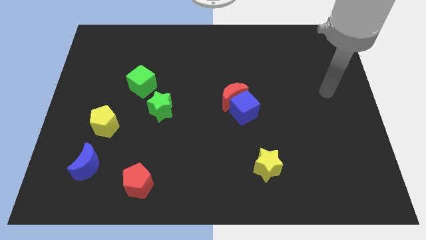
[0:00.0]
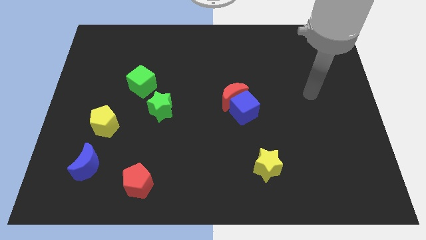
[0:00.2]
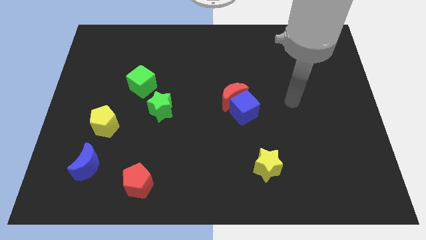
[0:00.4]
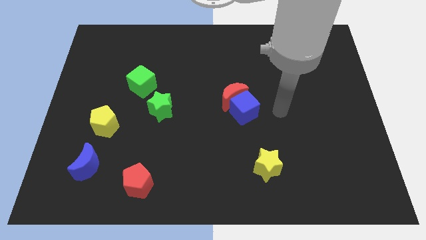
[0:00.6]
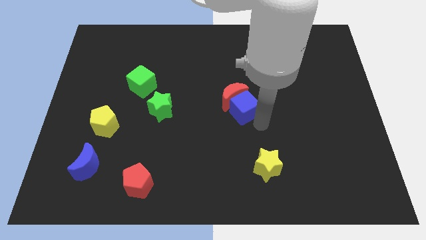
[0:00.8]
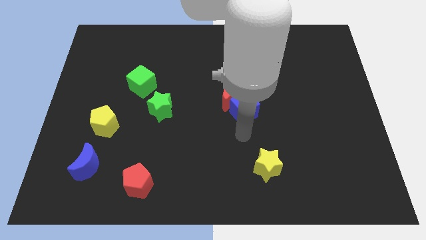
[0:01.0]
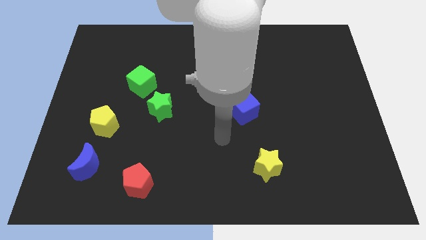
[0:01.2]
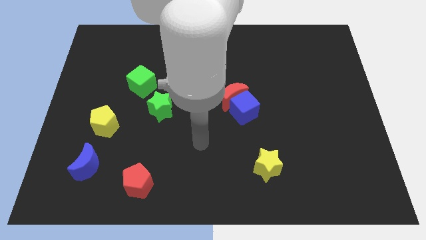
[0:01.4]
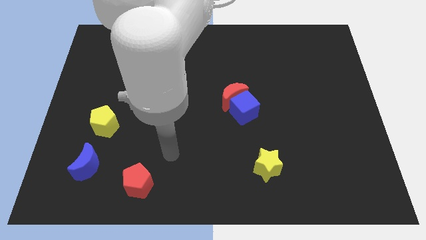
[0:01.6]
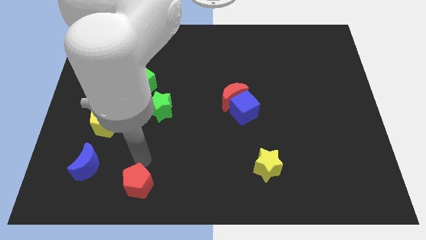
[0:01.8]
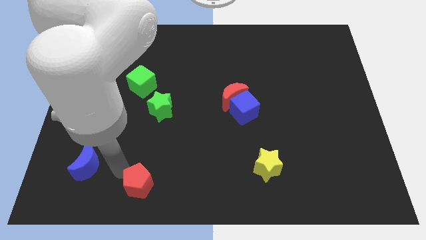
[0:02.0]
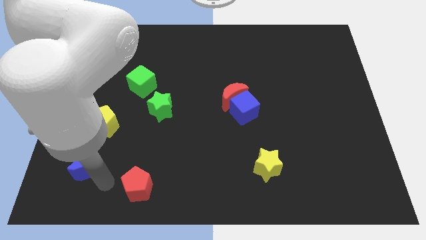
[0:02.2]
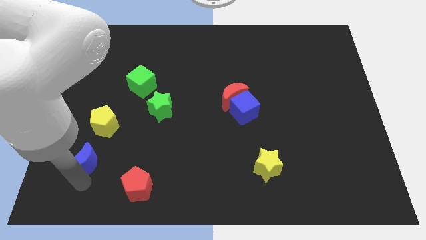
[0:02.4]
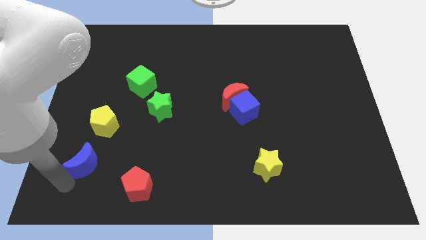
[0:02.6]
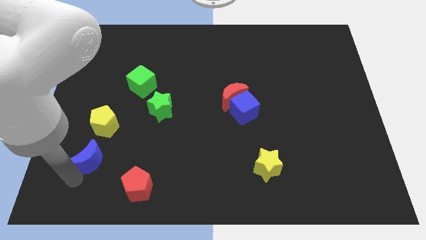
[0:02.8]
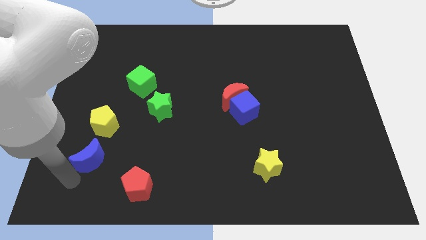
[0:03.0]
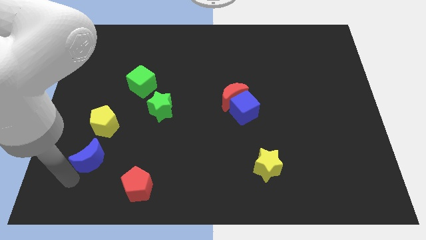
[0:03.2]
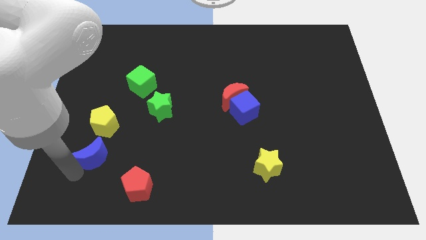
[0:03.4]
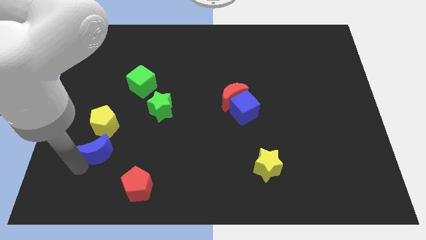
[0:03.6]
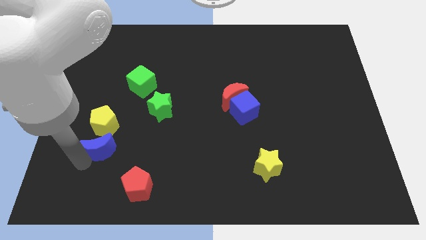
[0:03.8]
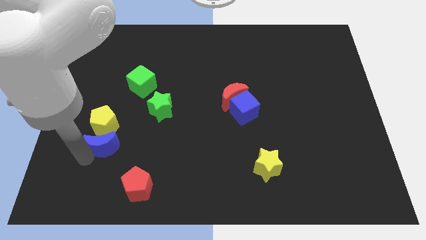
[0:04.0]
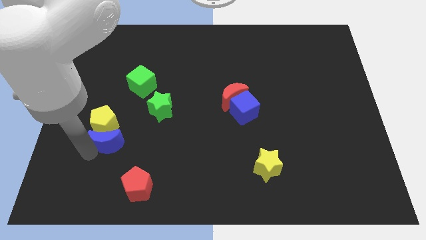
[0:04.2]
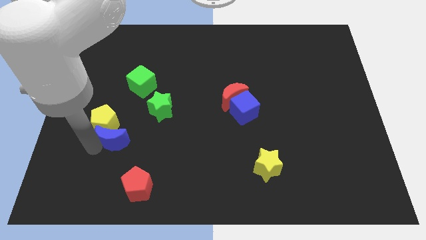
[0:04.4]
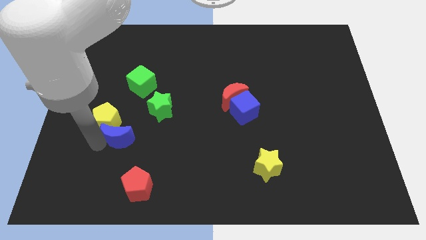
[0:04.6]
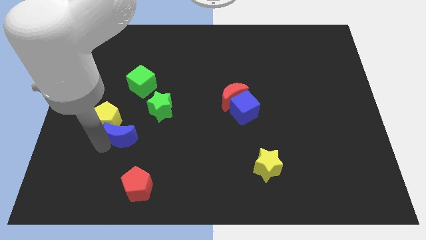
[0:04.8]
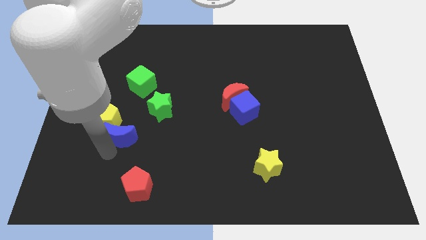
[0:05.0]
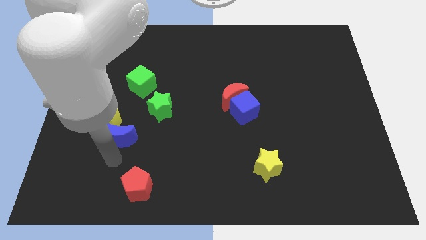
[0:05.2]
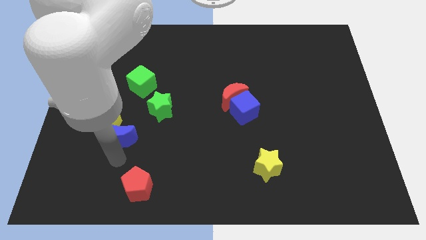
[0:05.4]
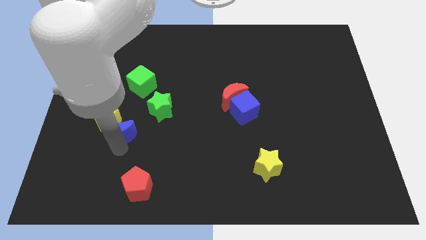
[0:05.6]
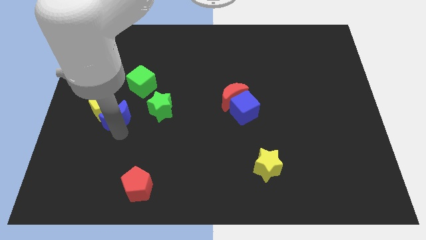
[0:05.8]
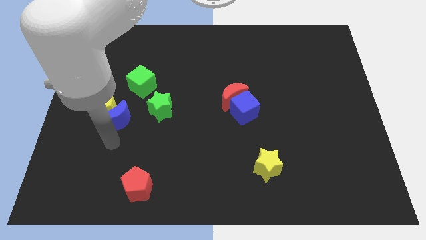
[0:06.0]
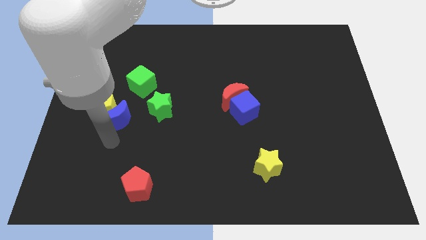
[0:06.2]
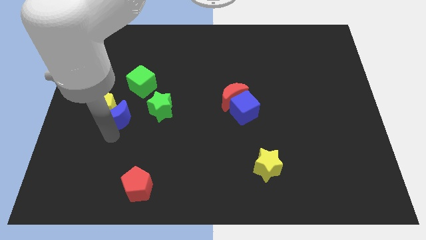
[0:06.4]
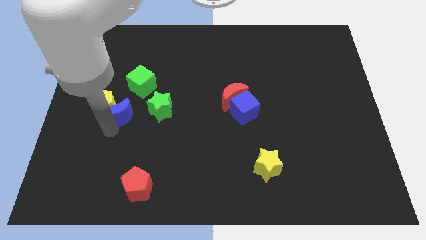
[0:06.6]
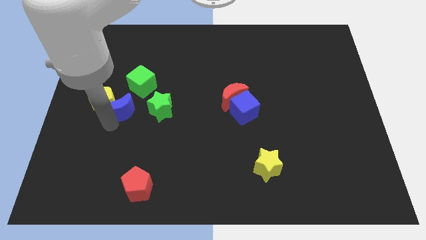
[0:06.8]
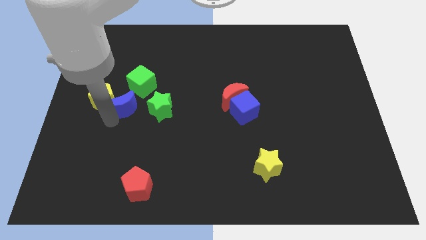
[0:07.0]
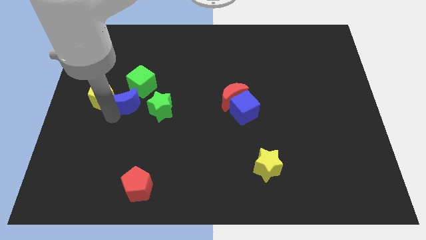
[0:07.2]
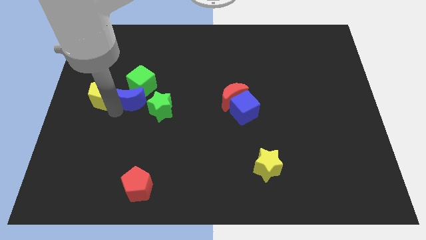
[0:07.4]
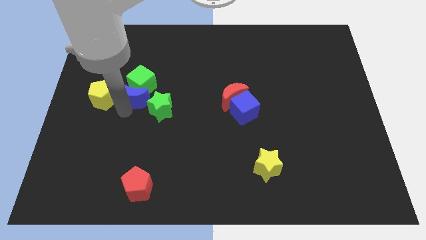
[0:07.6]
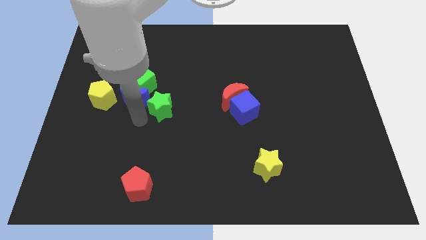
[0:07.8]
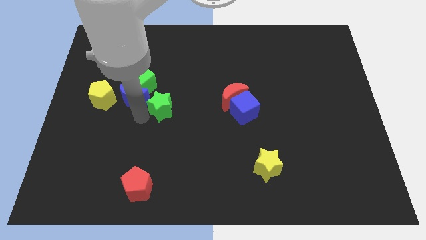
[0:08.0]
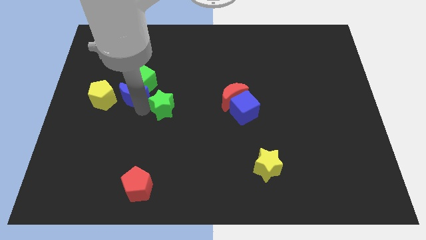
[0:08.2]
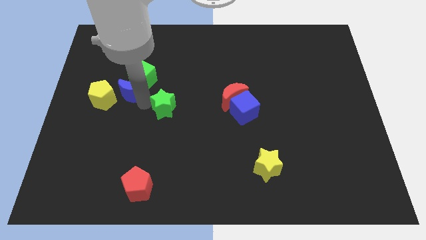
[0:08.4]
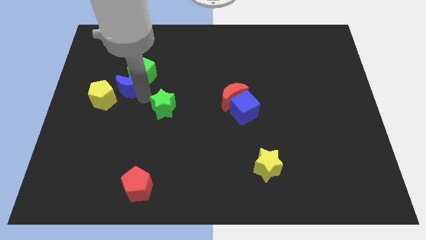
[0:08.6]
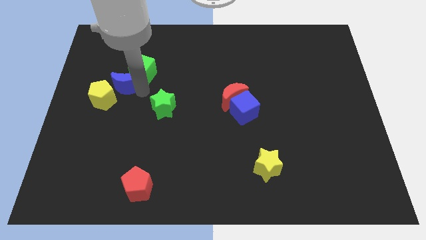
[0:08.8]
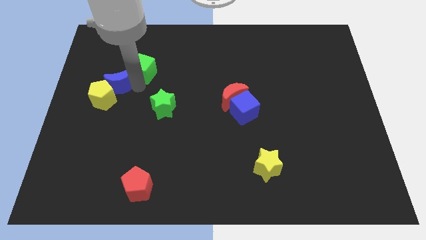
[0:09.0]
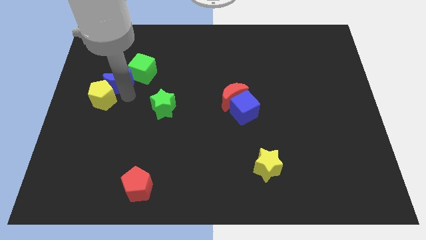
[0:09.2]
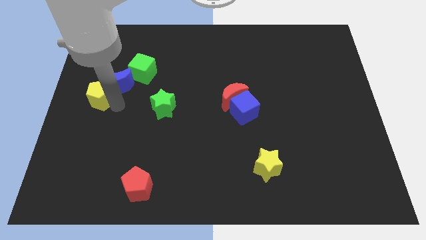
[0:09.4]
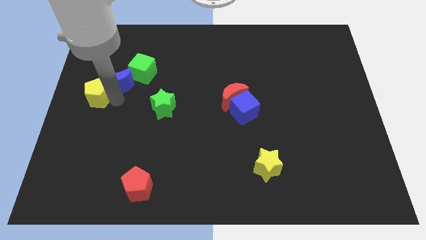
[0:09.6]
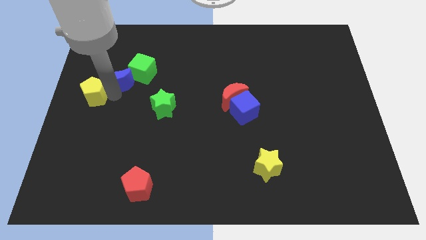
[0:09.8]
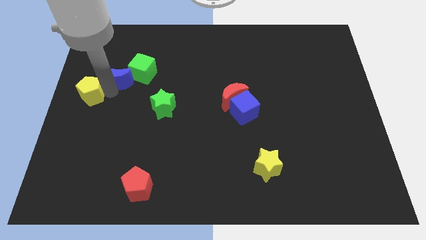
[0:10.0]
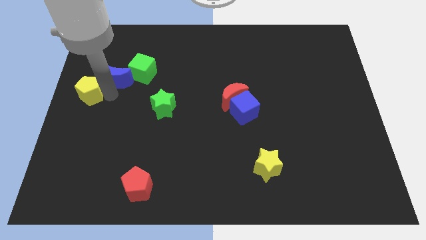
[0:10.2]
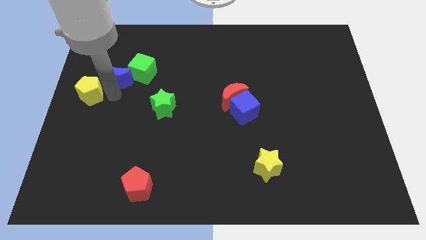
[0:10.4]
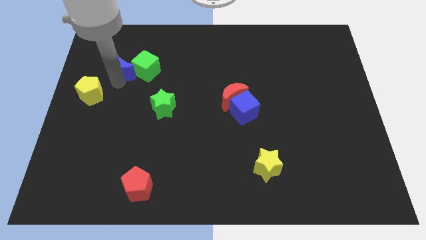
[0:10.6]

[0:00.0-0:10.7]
move the blue moon to the top left side of the green cube

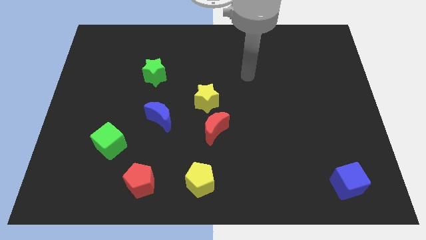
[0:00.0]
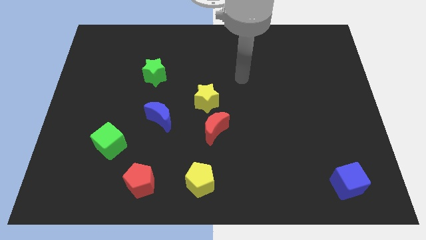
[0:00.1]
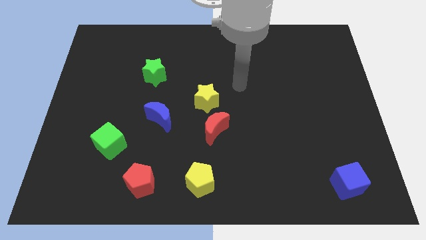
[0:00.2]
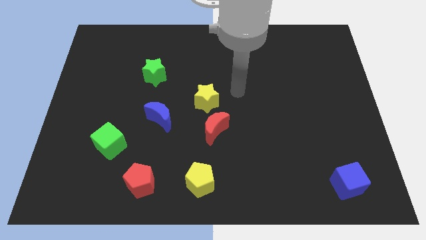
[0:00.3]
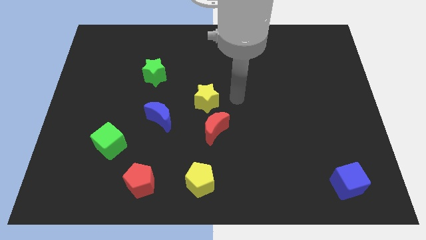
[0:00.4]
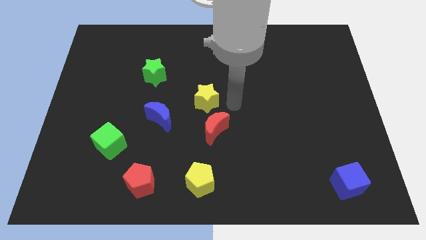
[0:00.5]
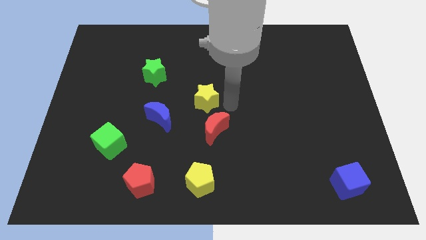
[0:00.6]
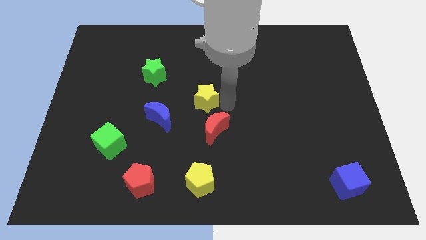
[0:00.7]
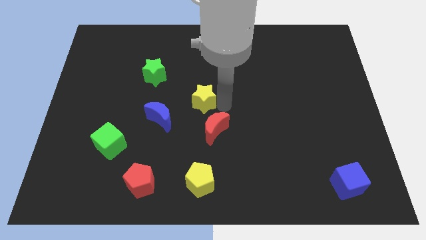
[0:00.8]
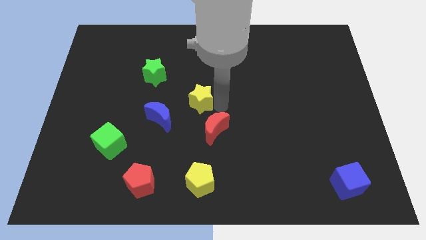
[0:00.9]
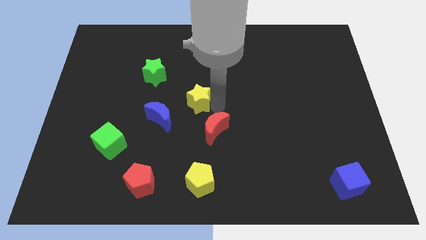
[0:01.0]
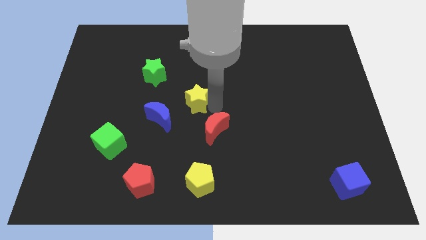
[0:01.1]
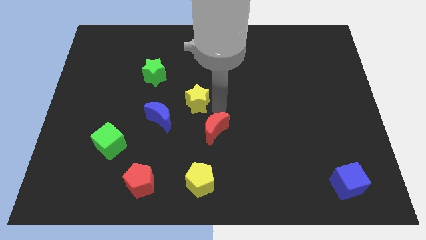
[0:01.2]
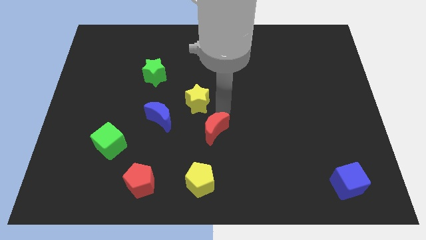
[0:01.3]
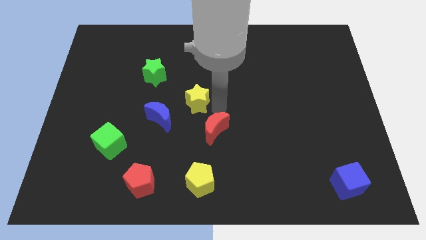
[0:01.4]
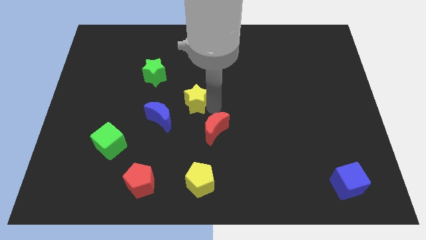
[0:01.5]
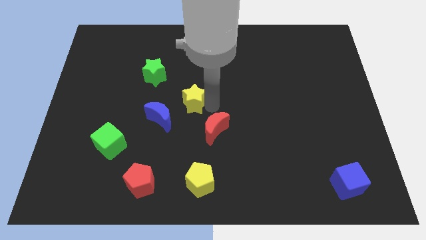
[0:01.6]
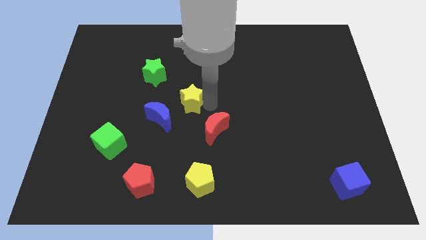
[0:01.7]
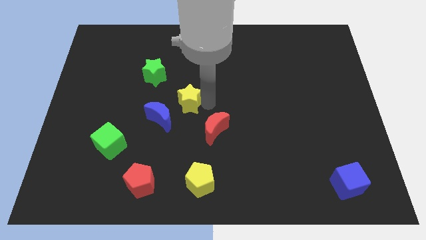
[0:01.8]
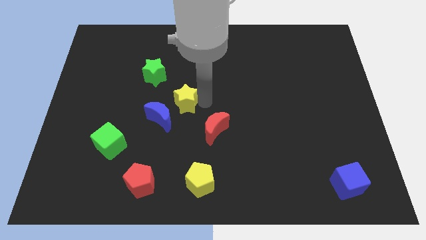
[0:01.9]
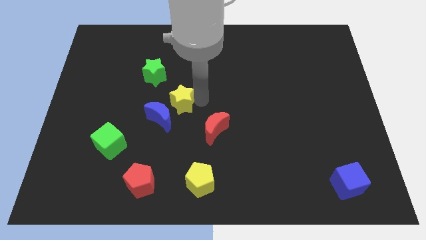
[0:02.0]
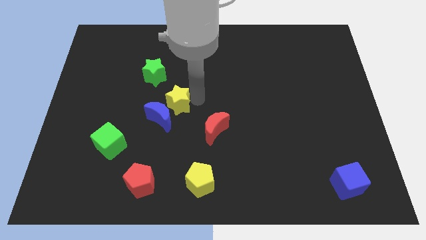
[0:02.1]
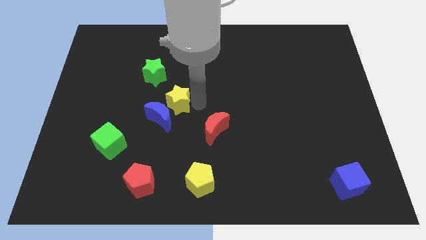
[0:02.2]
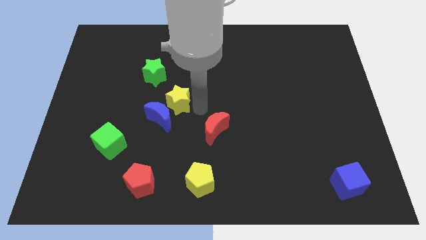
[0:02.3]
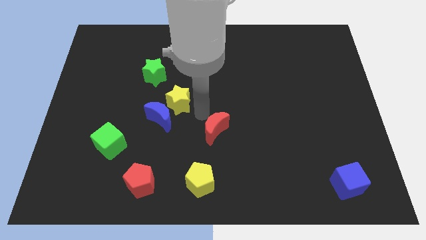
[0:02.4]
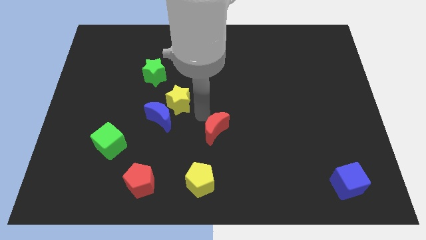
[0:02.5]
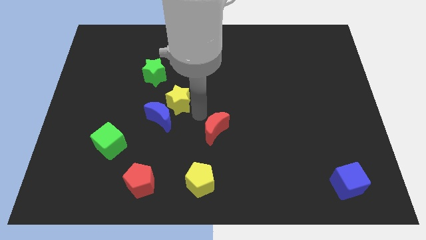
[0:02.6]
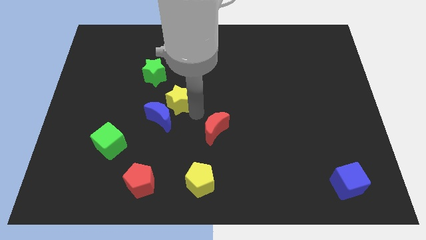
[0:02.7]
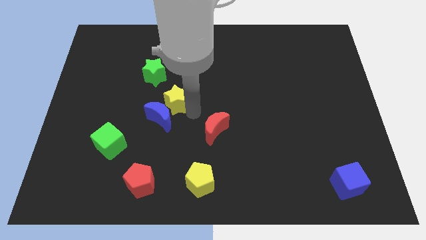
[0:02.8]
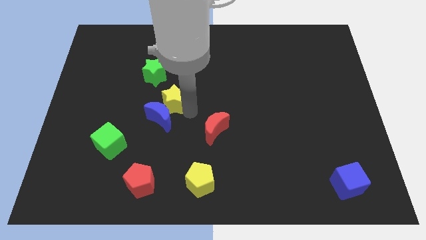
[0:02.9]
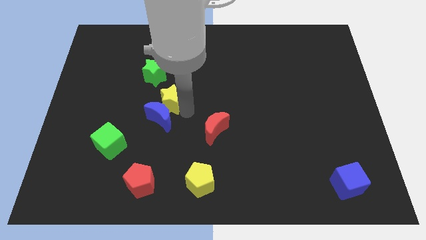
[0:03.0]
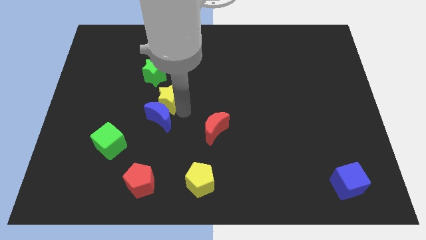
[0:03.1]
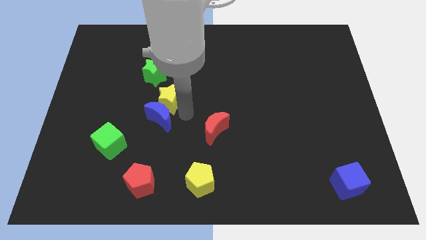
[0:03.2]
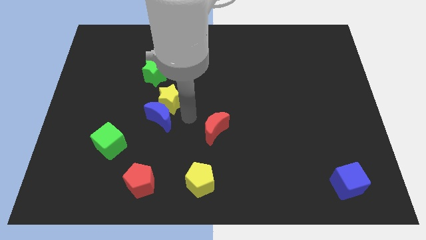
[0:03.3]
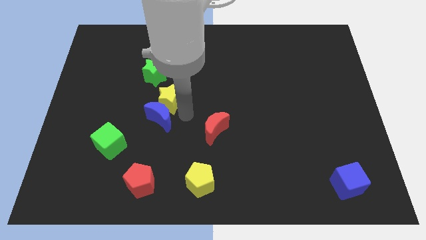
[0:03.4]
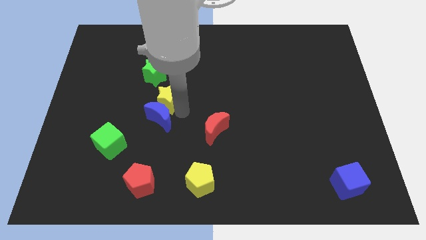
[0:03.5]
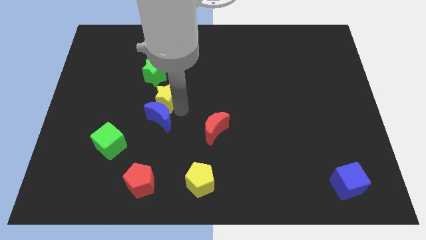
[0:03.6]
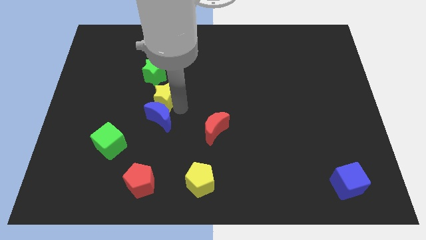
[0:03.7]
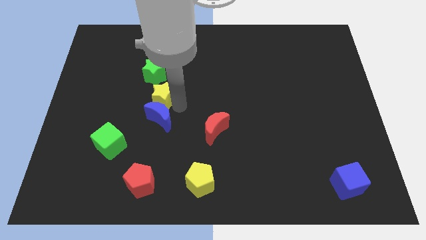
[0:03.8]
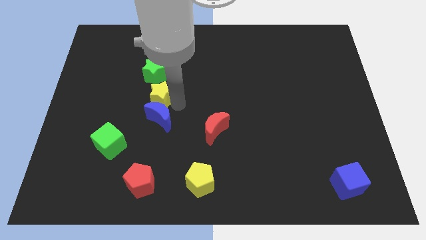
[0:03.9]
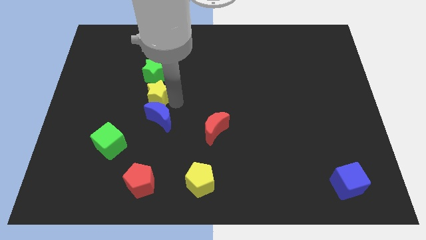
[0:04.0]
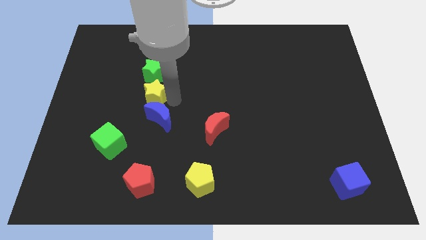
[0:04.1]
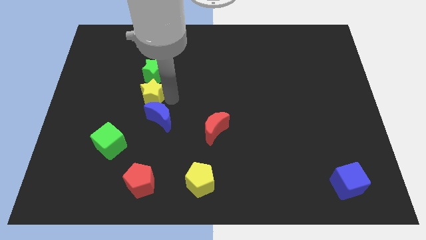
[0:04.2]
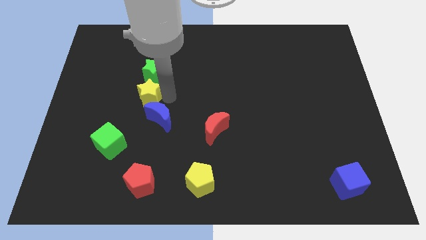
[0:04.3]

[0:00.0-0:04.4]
put the yellow star to the bottom left side of the green star
